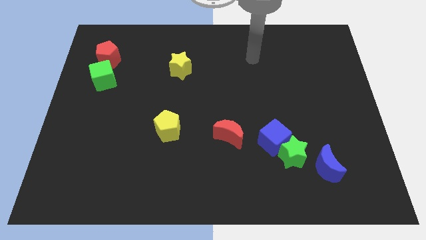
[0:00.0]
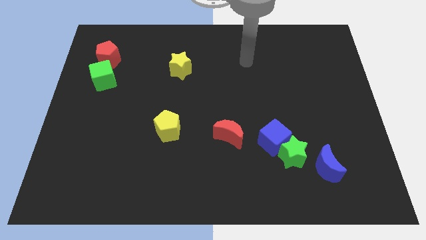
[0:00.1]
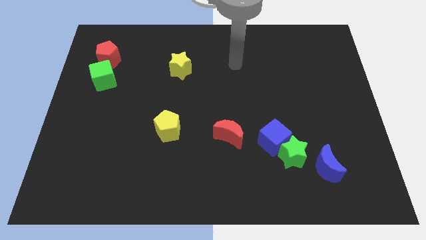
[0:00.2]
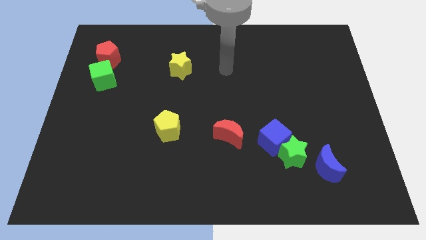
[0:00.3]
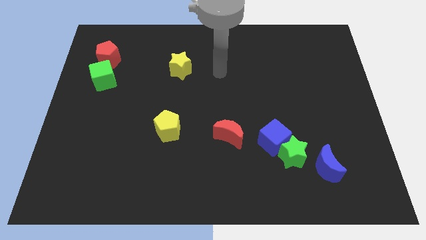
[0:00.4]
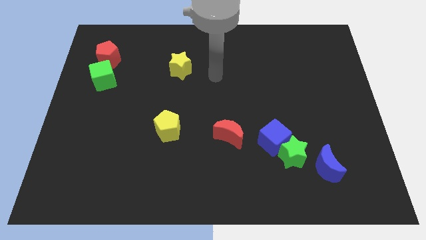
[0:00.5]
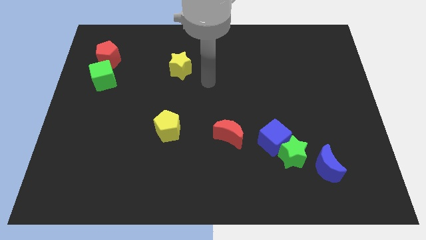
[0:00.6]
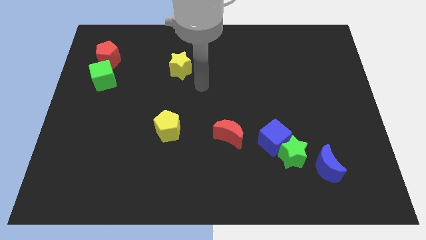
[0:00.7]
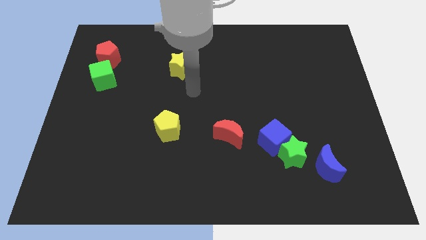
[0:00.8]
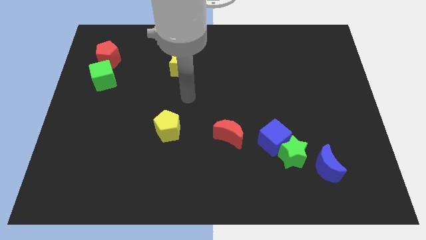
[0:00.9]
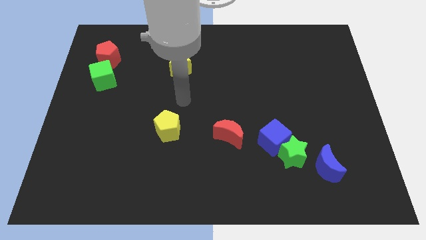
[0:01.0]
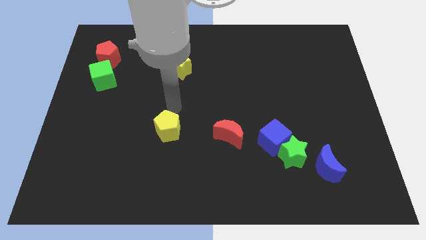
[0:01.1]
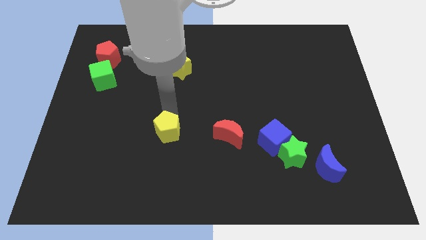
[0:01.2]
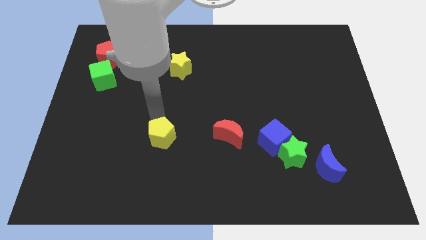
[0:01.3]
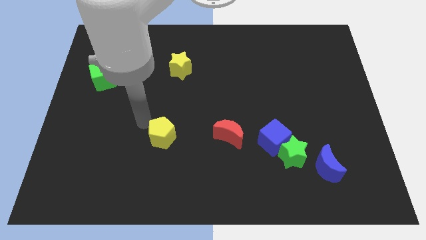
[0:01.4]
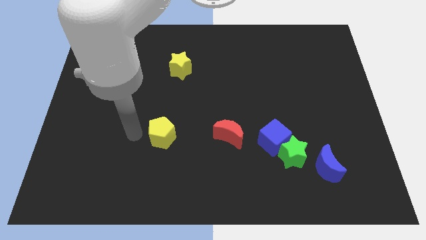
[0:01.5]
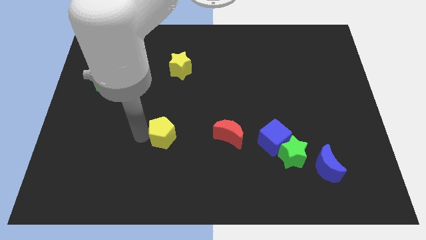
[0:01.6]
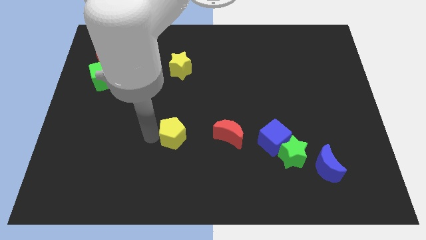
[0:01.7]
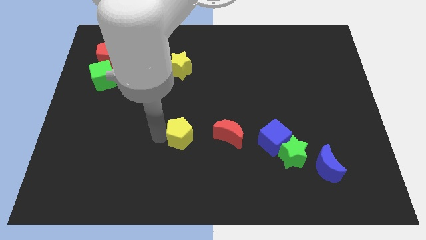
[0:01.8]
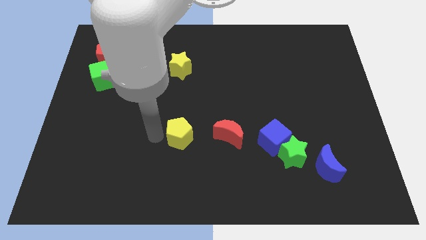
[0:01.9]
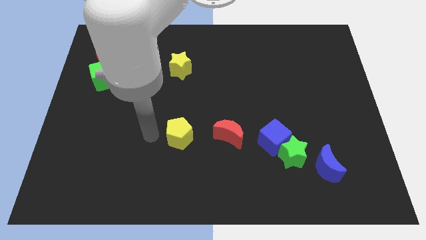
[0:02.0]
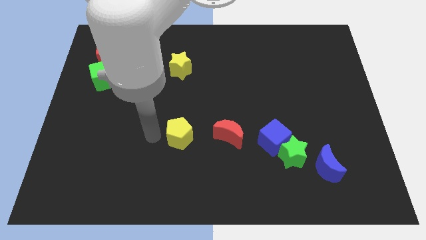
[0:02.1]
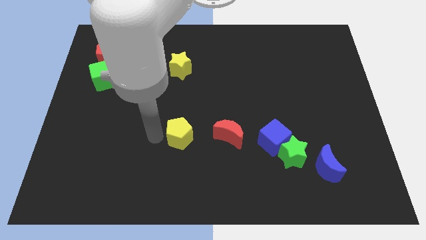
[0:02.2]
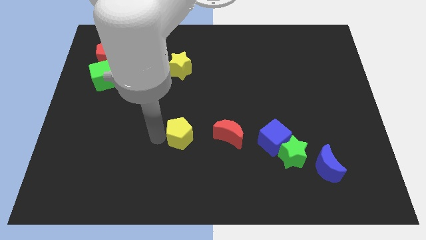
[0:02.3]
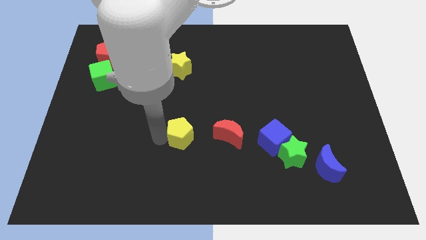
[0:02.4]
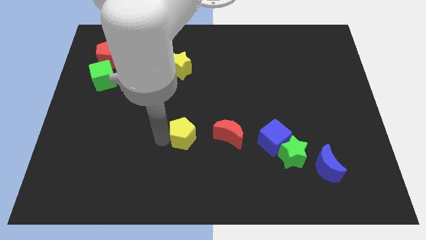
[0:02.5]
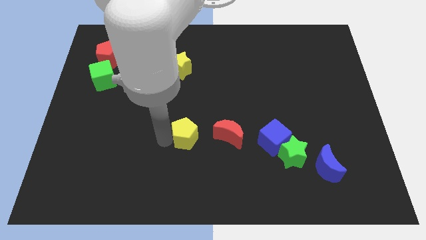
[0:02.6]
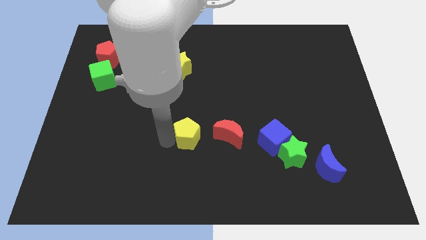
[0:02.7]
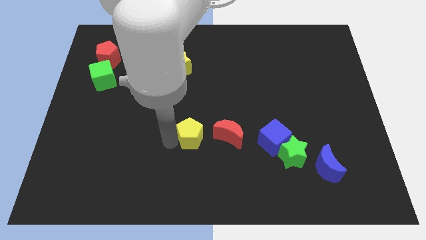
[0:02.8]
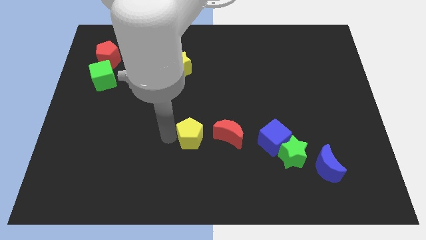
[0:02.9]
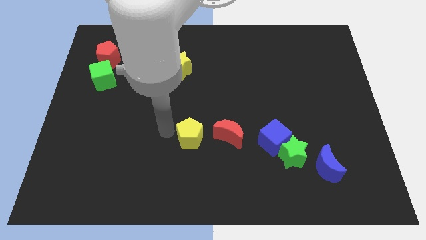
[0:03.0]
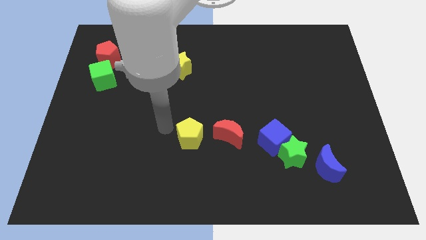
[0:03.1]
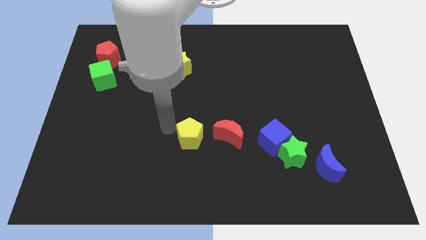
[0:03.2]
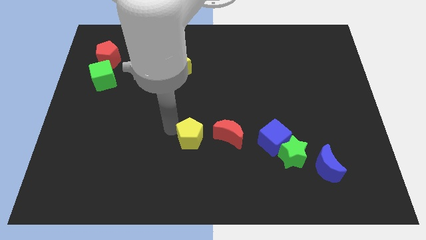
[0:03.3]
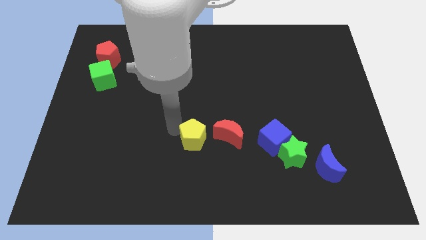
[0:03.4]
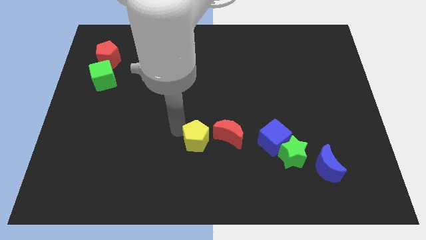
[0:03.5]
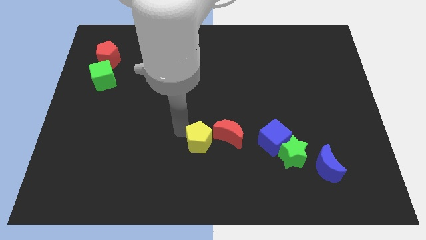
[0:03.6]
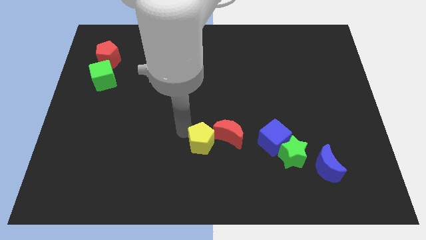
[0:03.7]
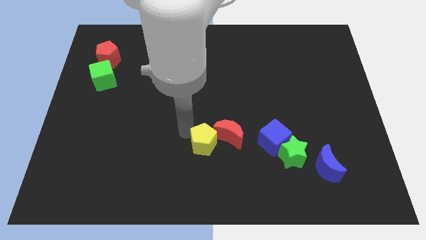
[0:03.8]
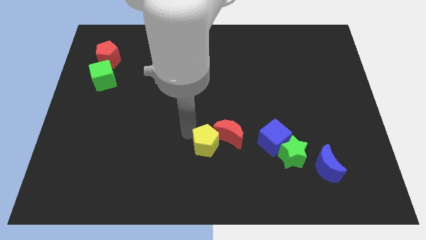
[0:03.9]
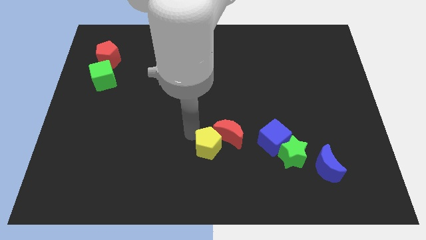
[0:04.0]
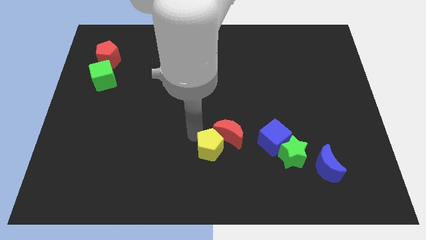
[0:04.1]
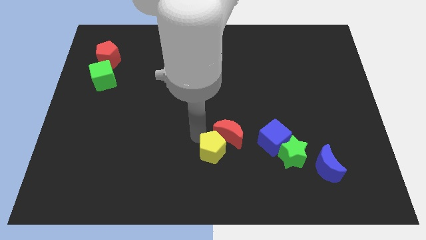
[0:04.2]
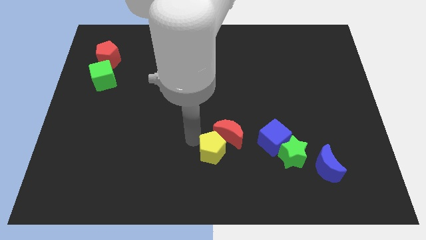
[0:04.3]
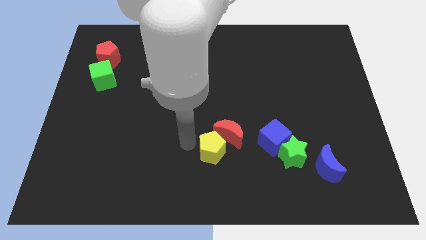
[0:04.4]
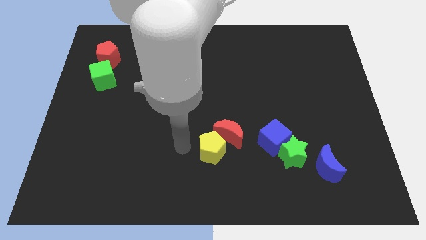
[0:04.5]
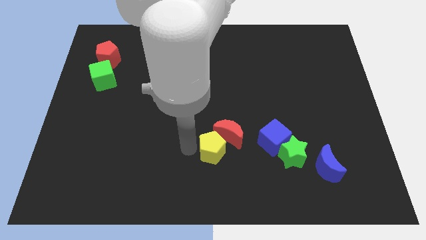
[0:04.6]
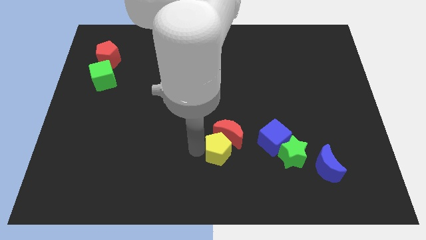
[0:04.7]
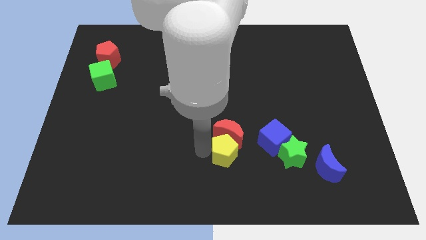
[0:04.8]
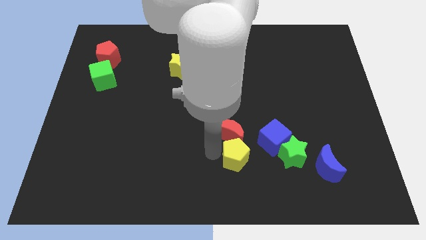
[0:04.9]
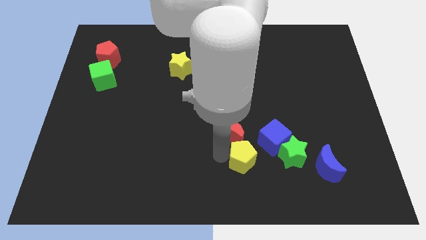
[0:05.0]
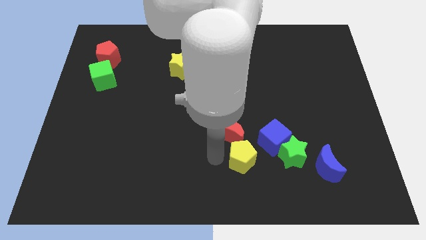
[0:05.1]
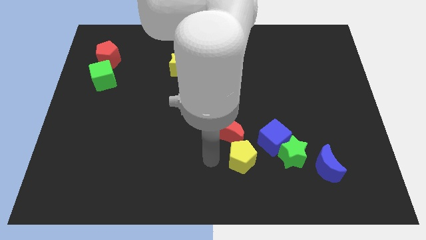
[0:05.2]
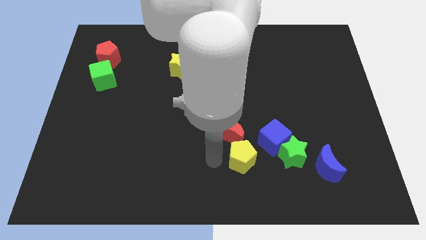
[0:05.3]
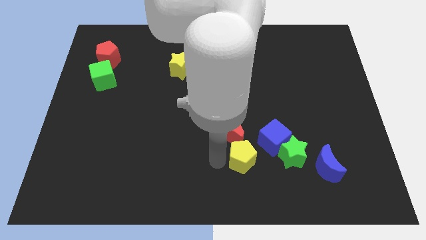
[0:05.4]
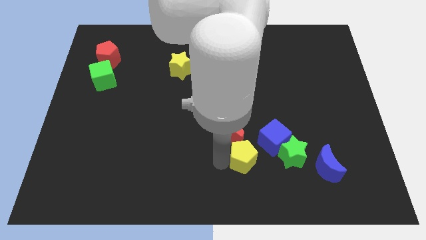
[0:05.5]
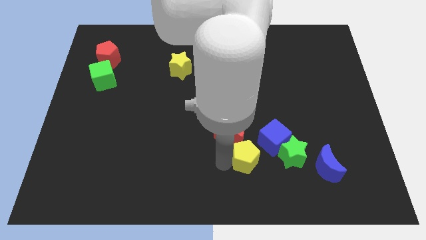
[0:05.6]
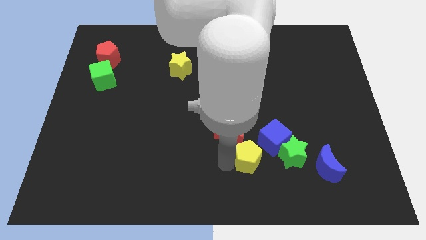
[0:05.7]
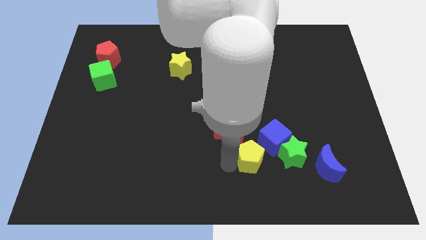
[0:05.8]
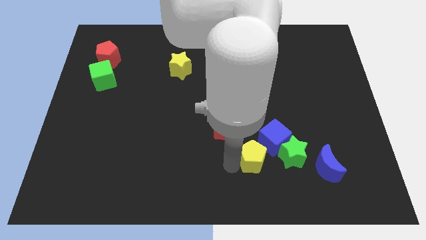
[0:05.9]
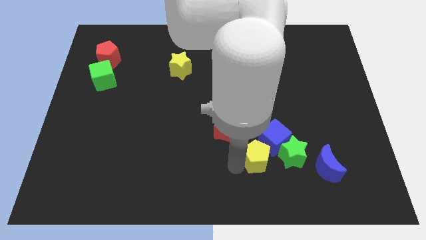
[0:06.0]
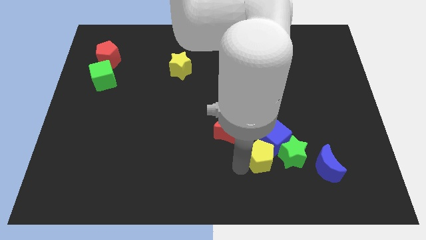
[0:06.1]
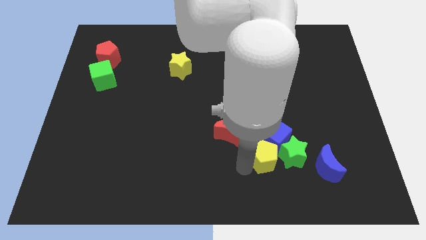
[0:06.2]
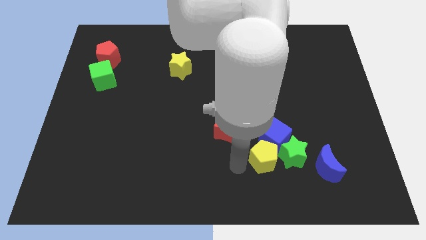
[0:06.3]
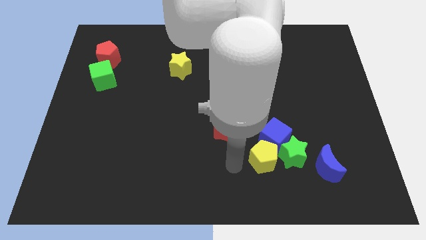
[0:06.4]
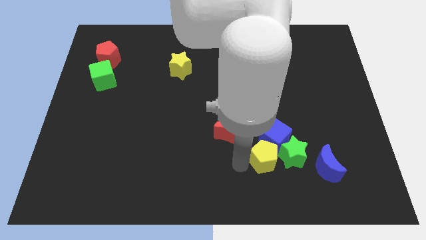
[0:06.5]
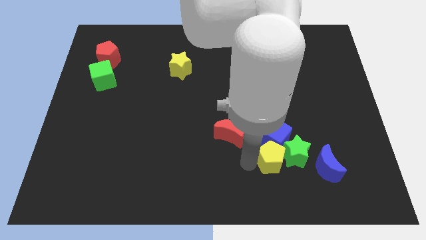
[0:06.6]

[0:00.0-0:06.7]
slide the yellow pentagon close to the green star
